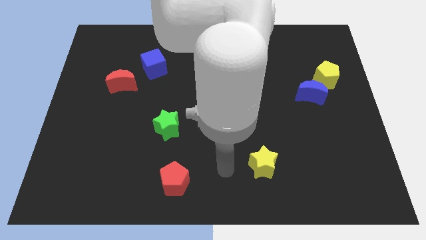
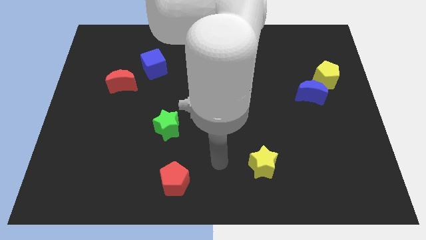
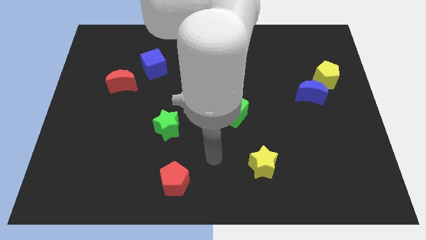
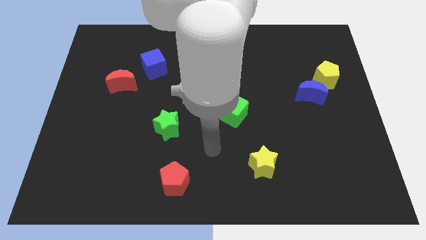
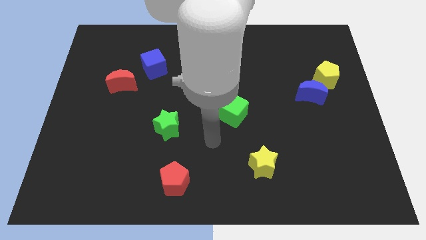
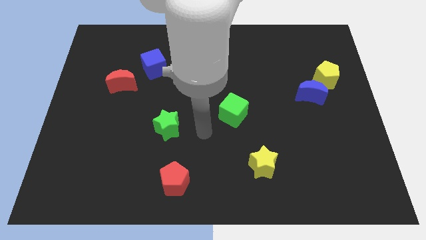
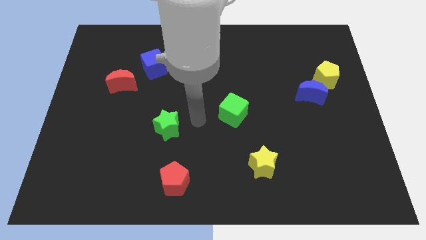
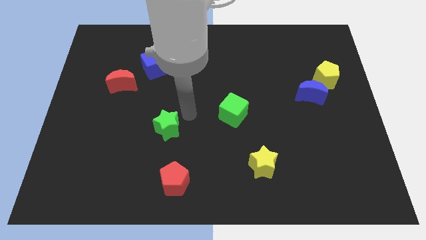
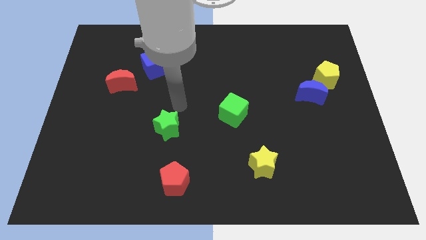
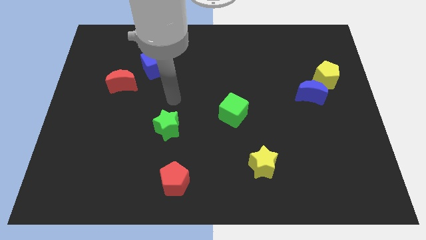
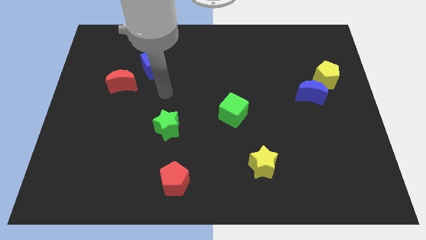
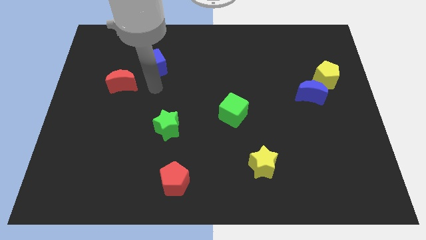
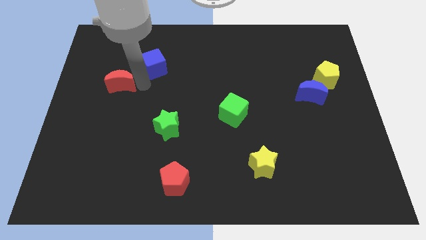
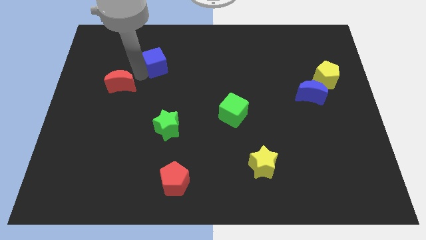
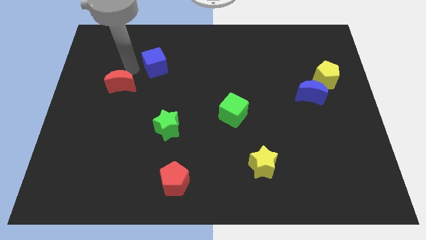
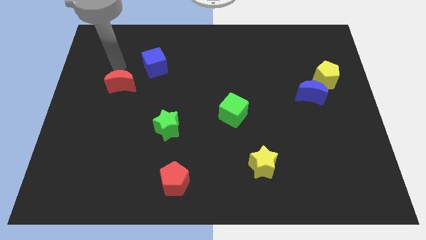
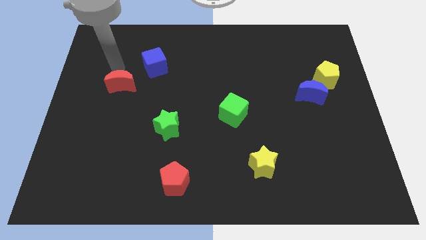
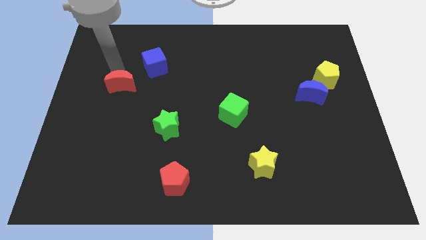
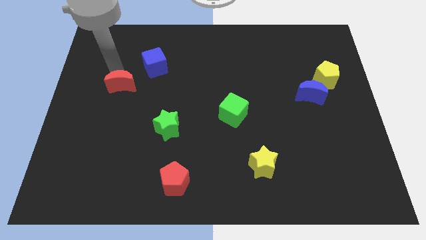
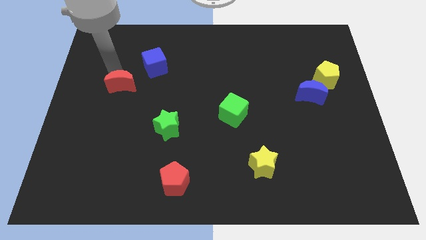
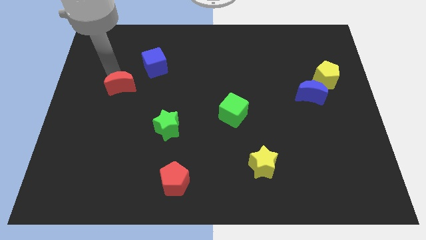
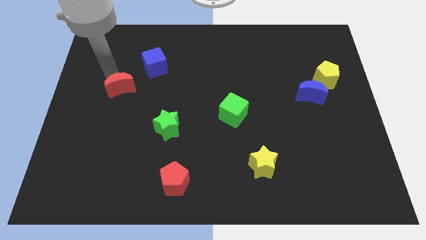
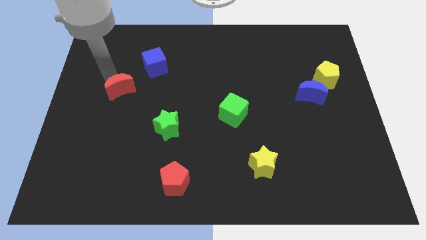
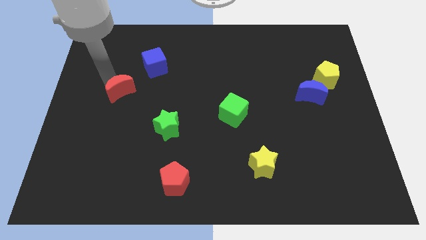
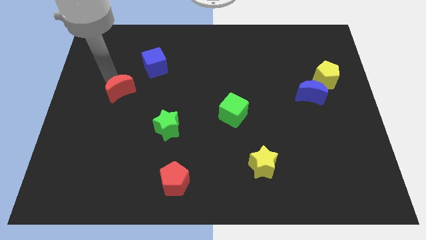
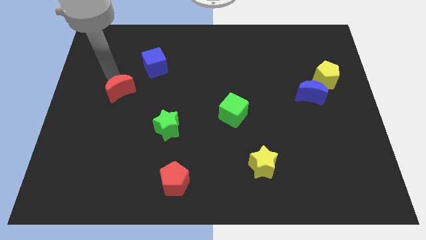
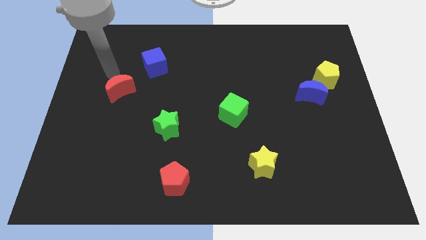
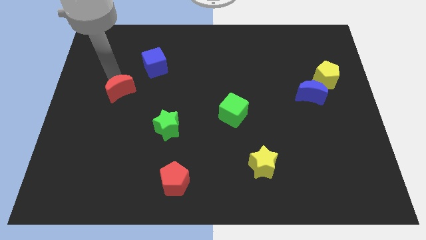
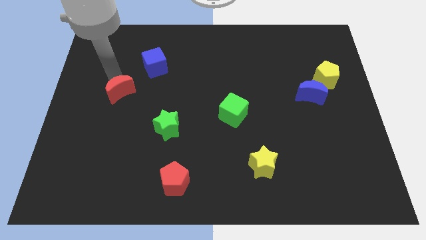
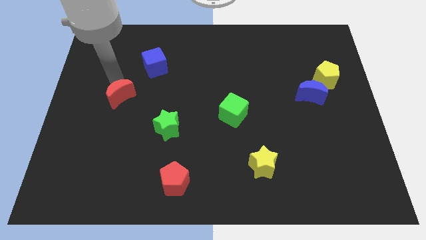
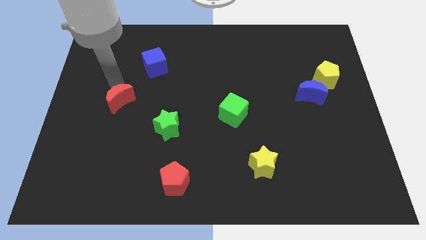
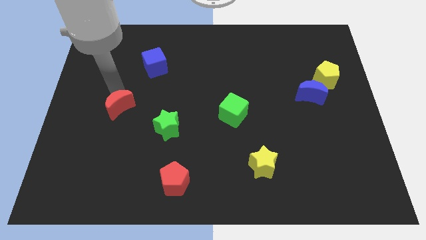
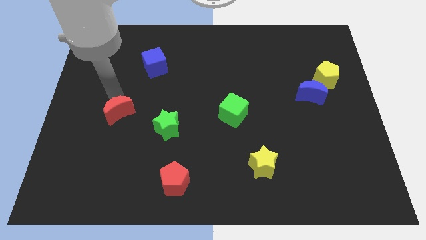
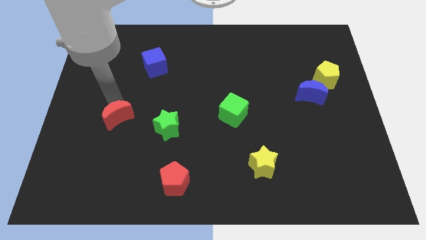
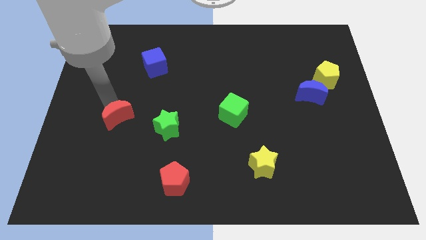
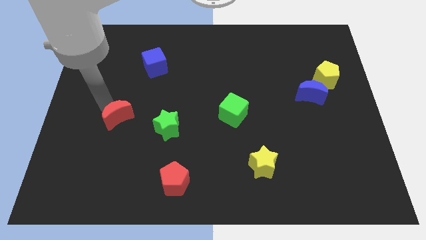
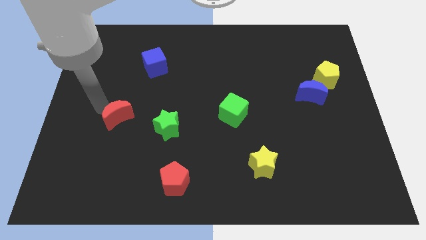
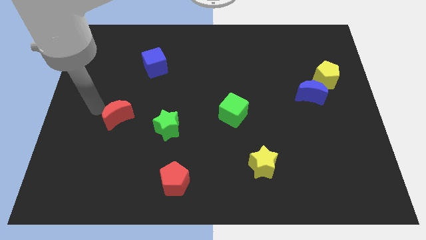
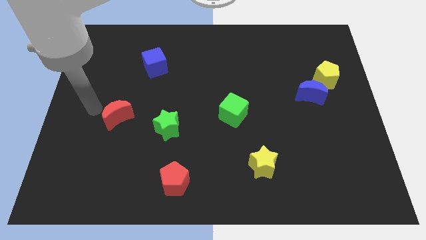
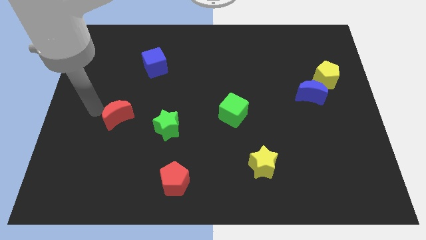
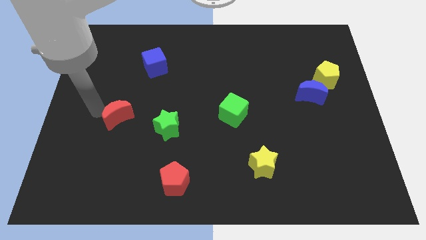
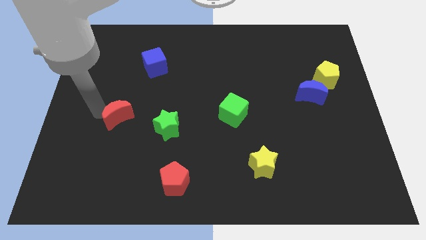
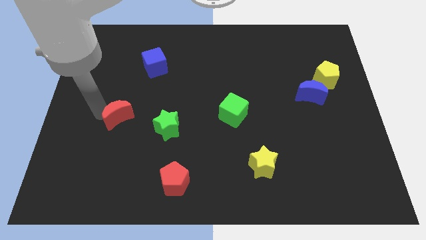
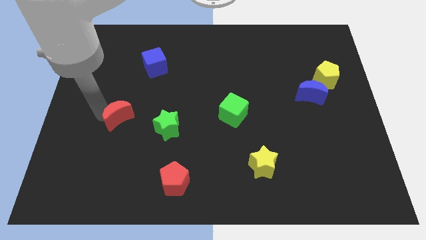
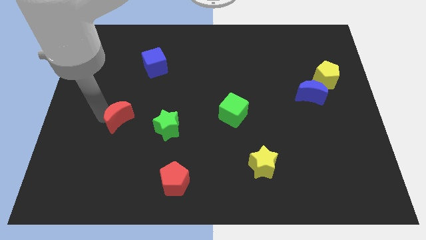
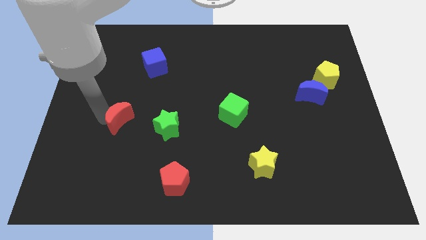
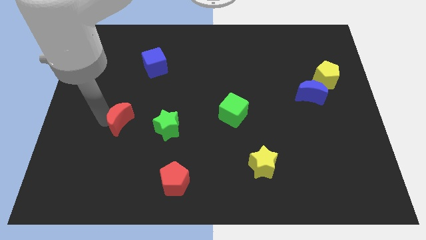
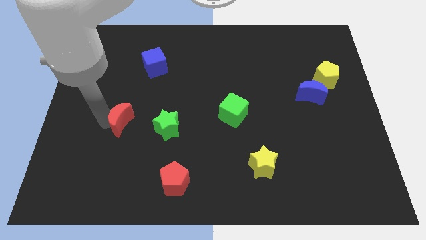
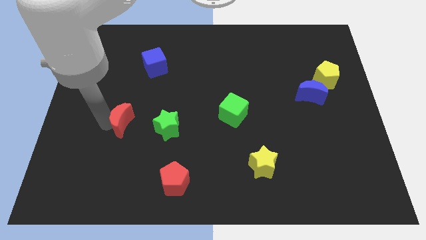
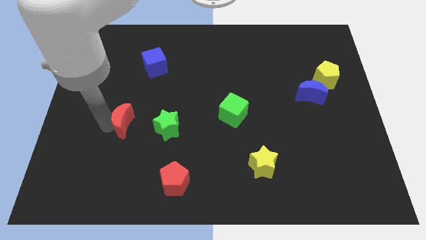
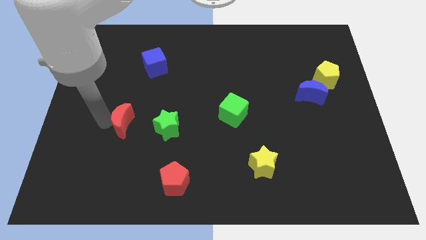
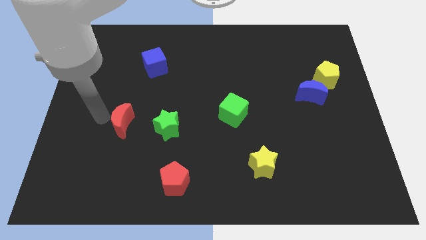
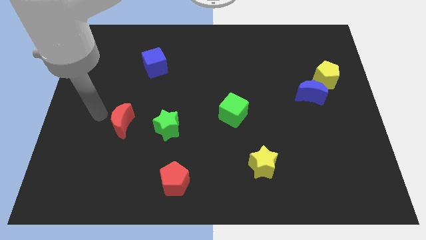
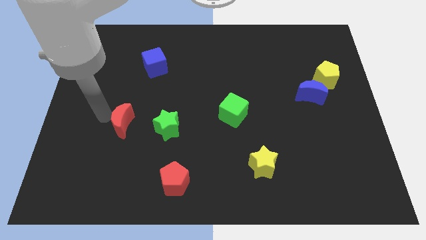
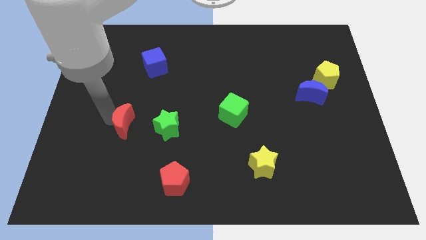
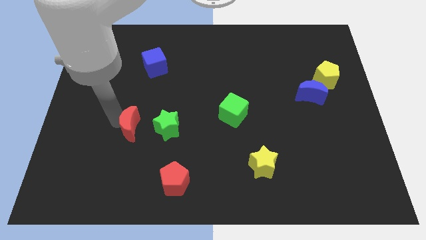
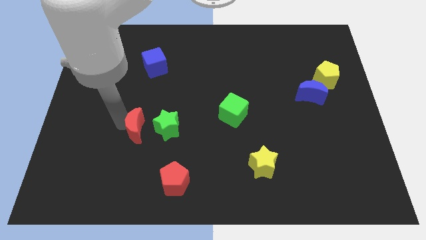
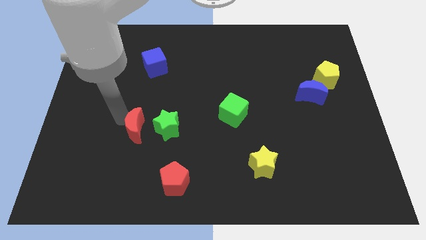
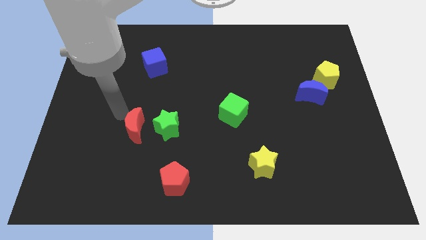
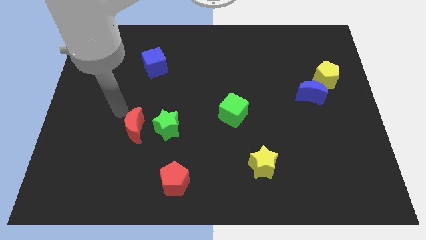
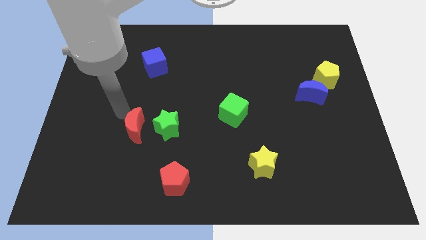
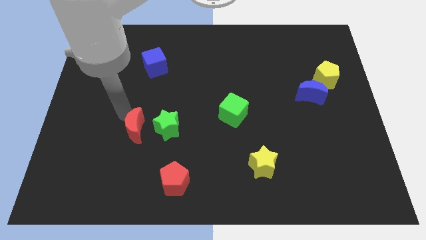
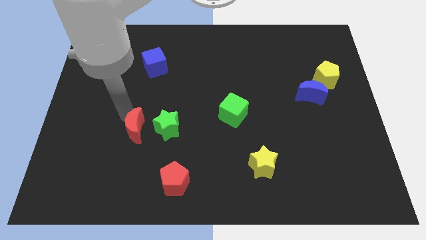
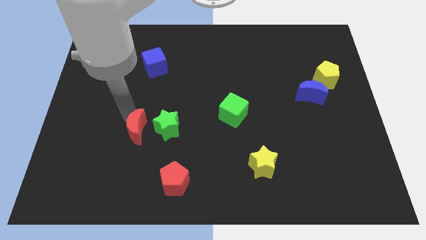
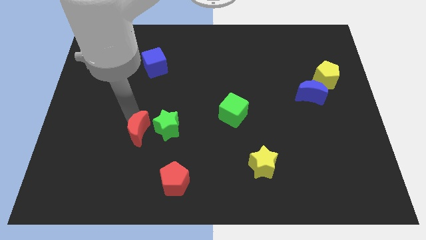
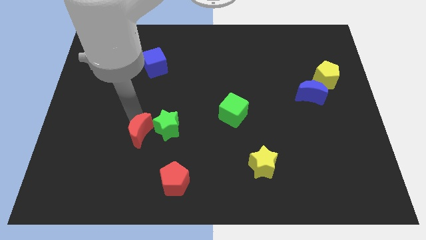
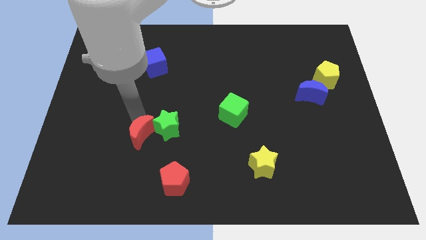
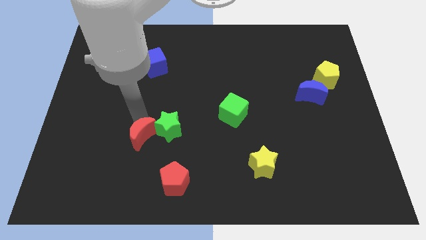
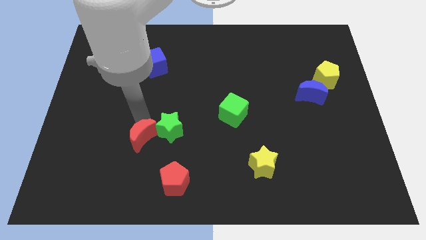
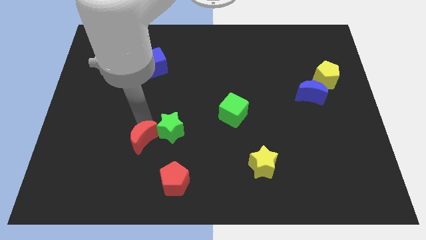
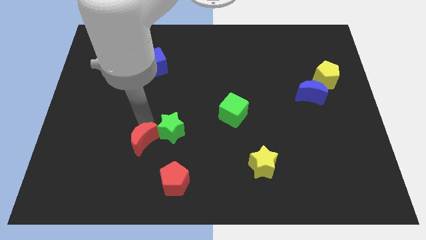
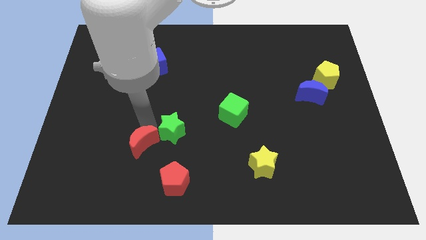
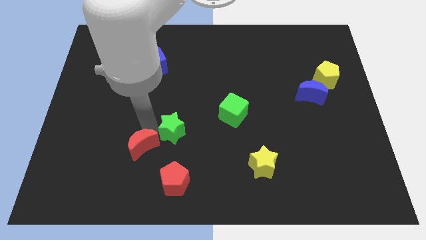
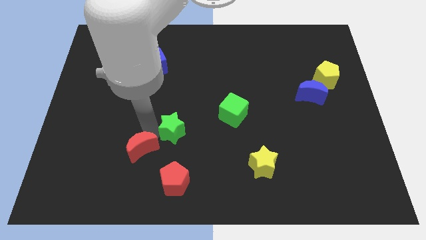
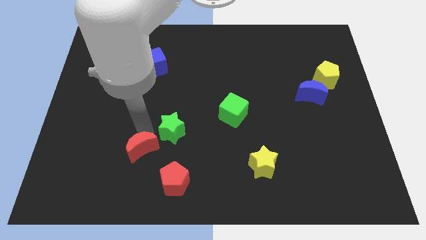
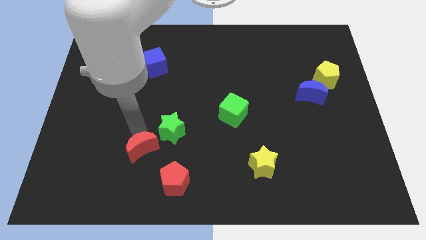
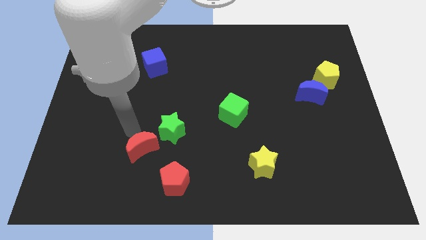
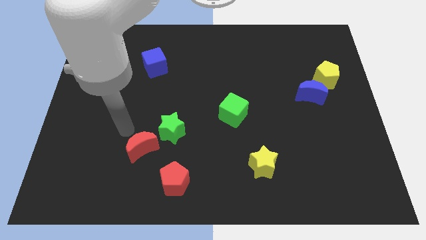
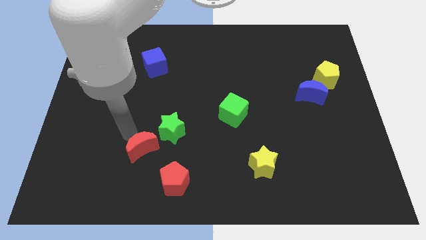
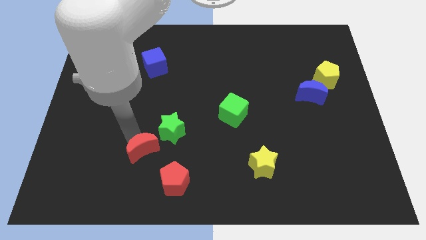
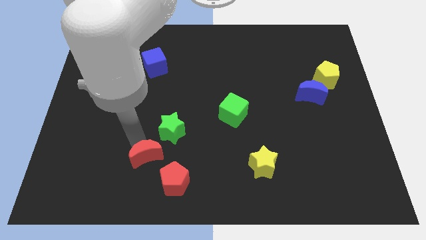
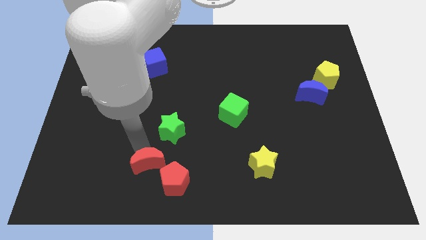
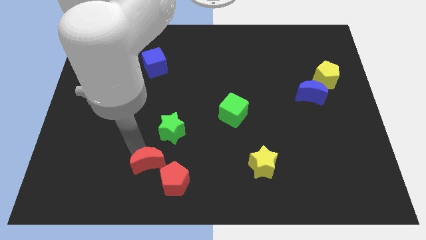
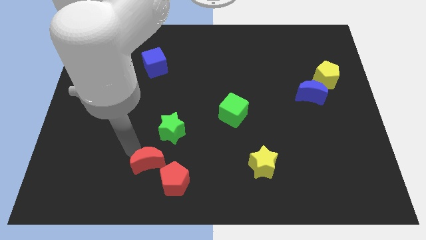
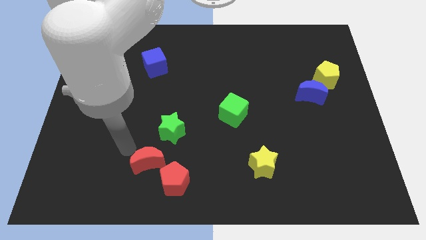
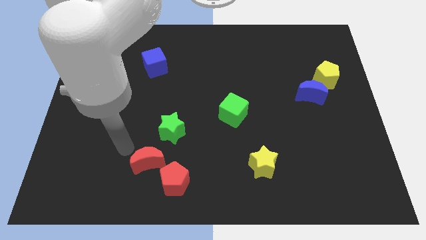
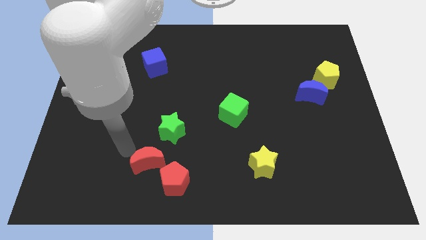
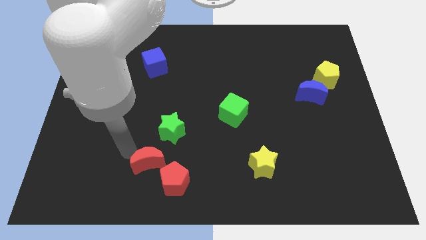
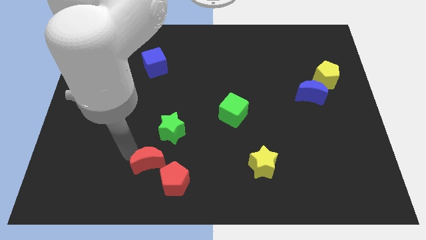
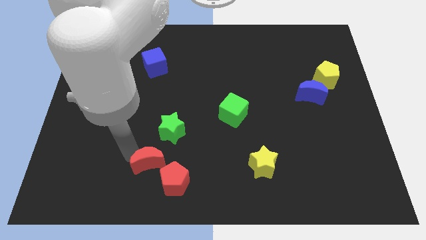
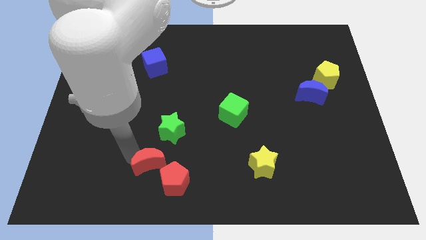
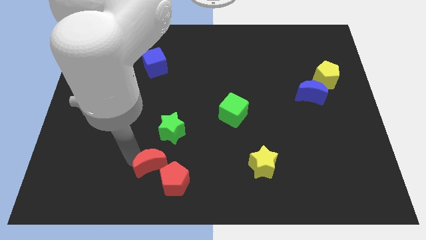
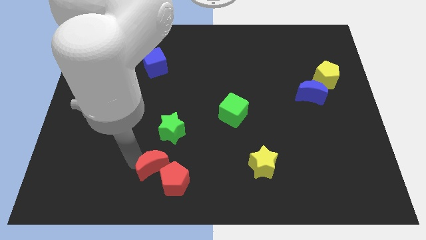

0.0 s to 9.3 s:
slide the red moon towards the red pentagon
